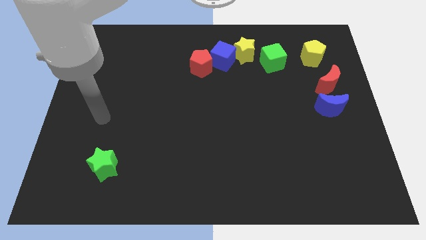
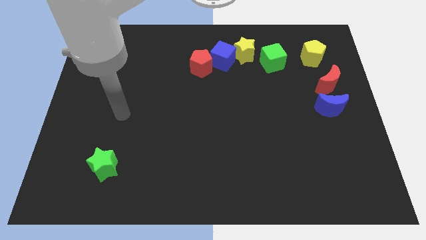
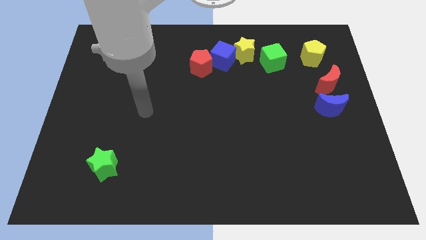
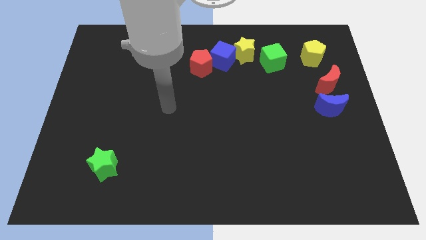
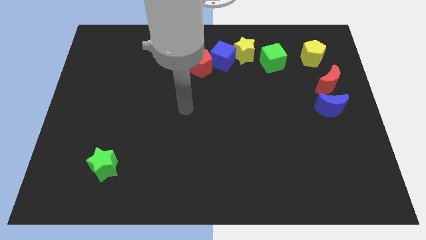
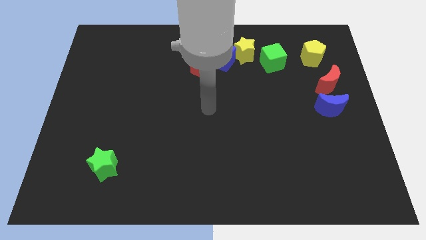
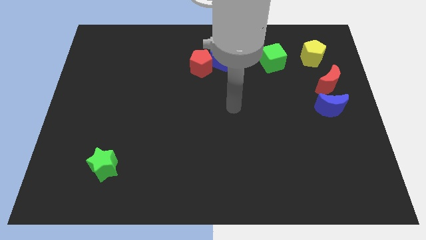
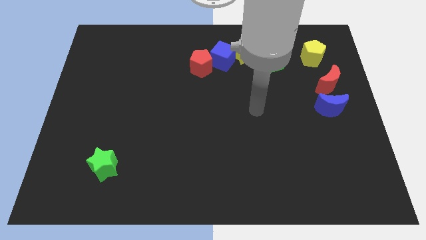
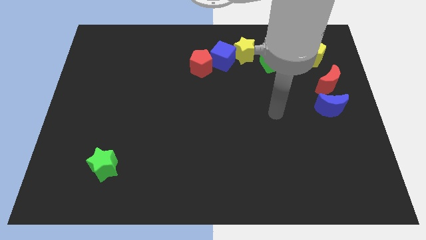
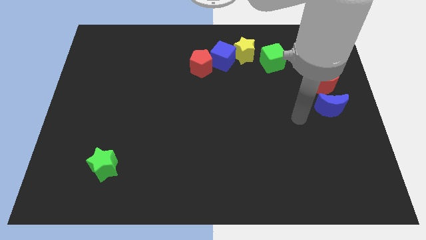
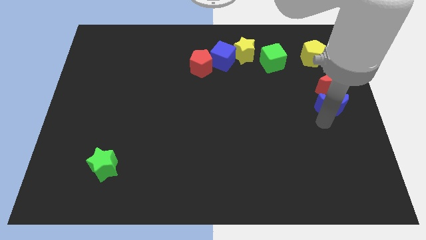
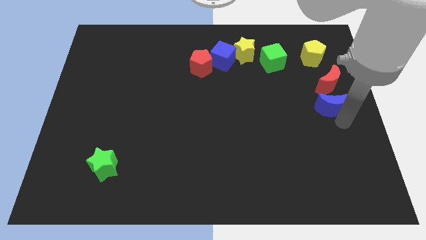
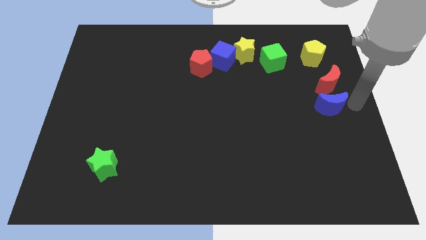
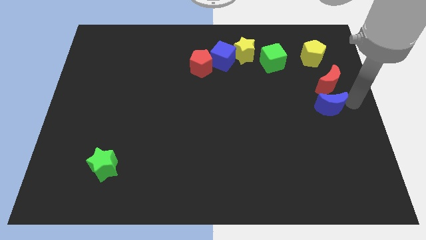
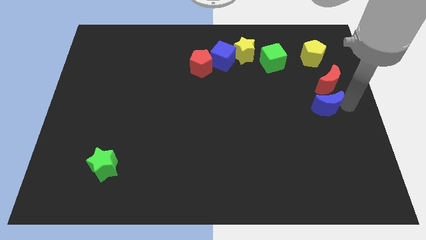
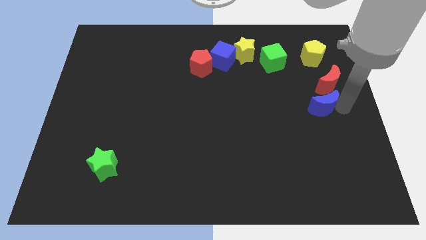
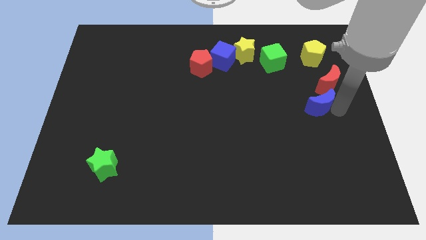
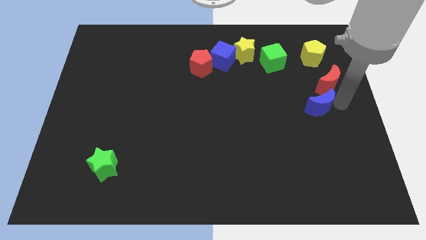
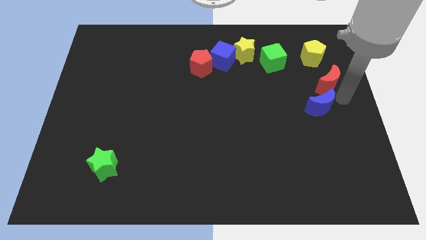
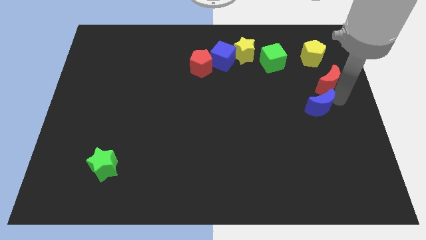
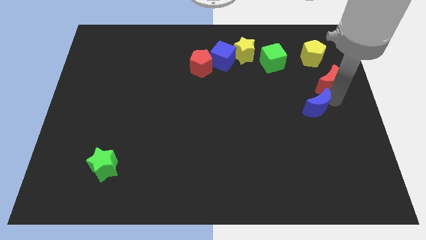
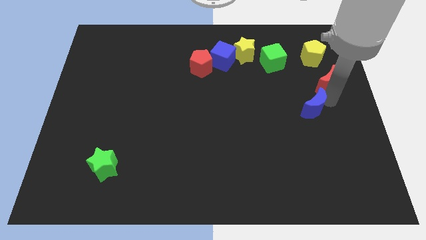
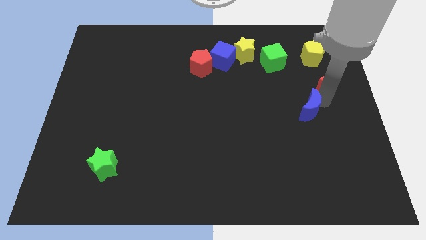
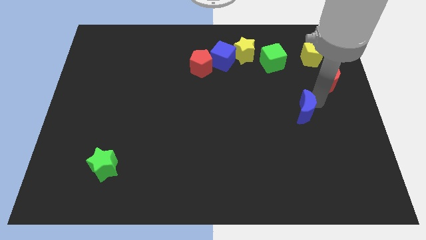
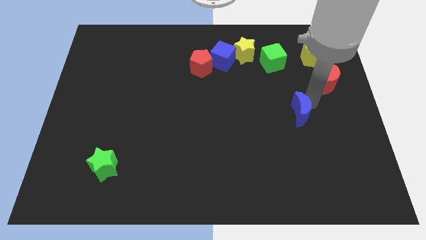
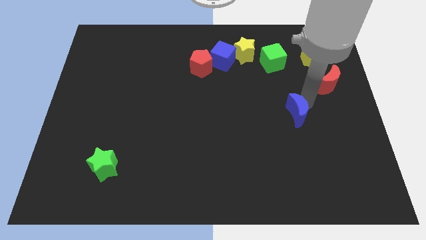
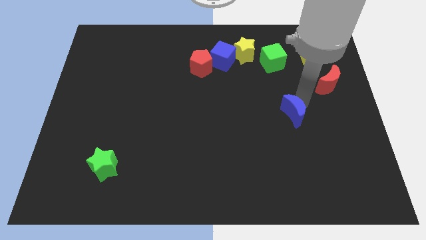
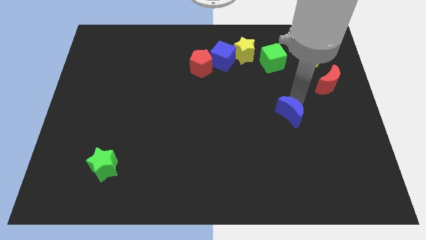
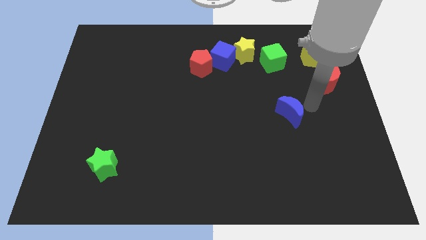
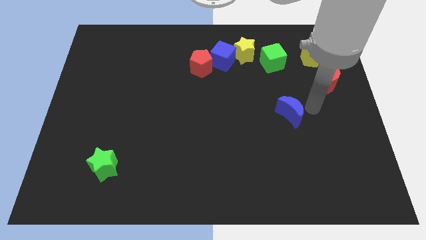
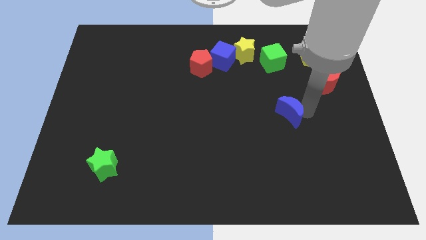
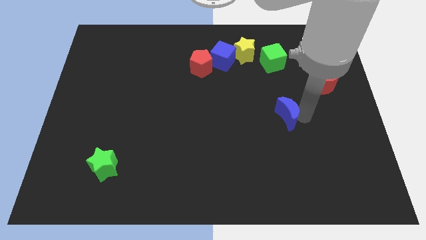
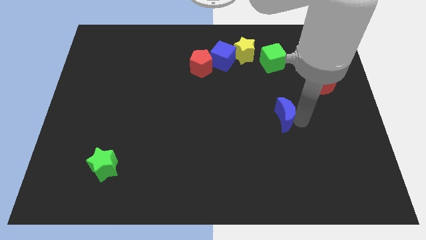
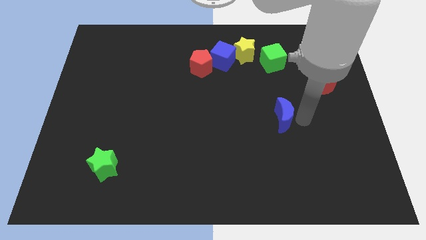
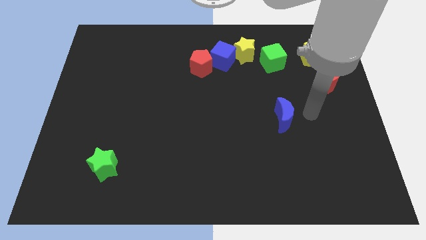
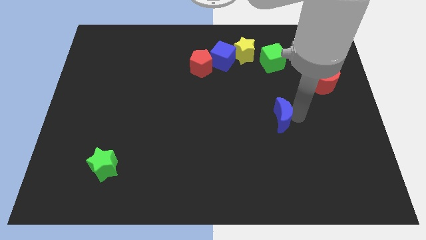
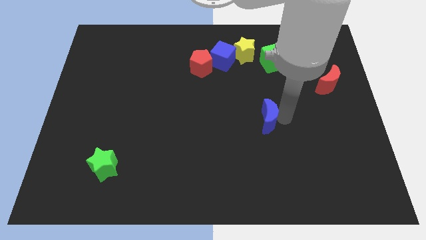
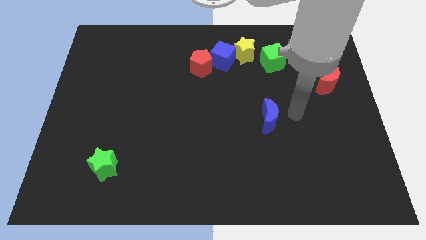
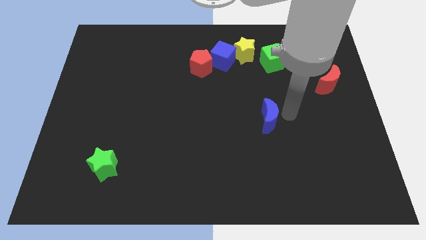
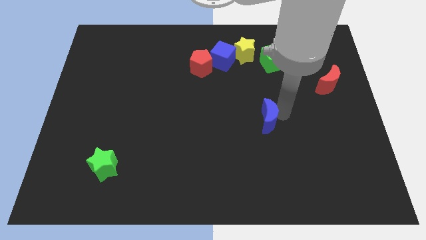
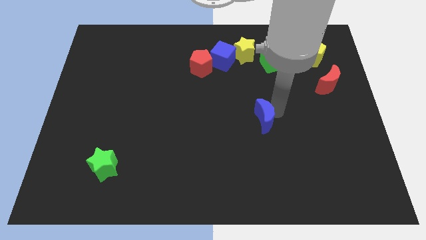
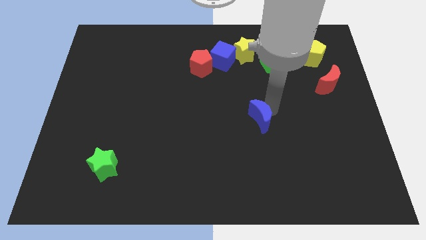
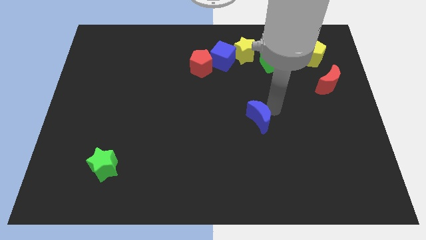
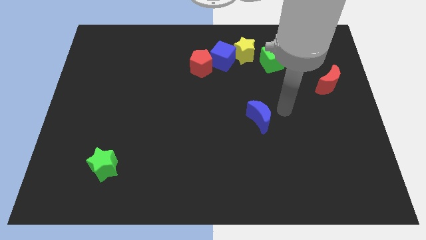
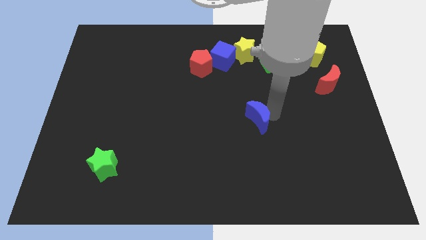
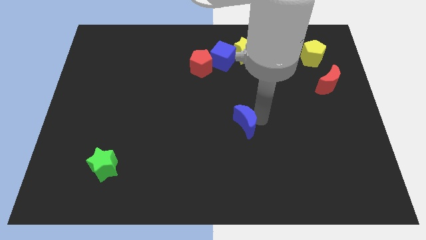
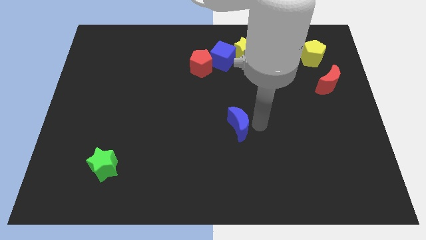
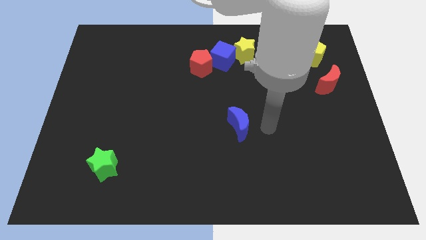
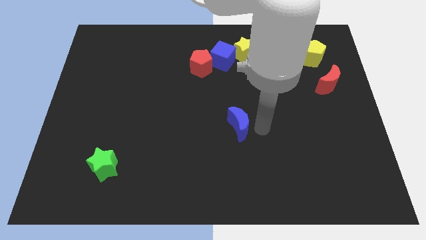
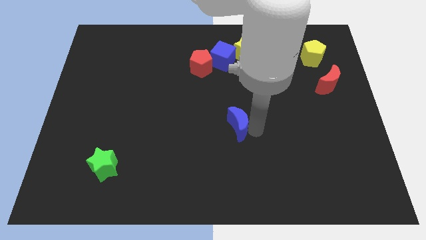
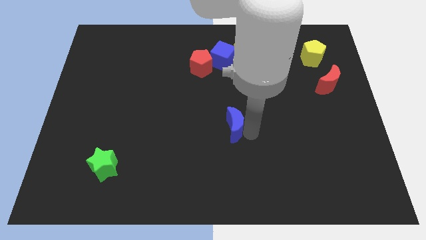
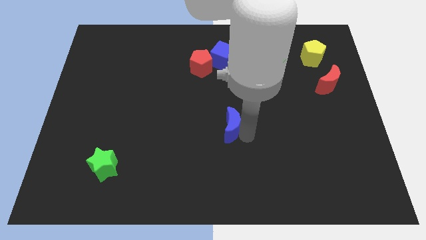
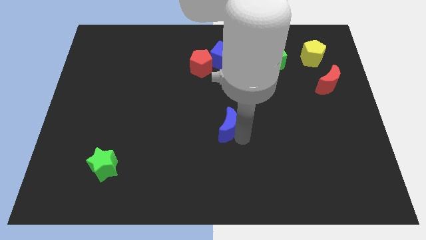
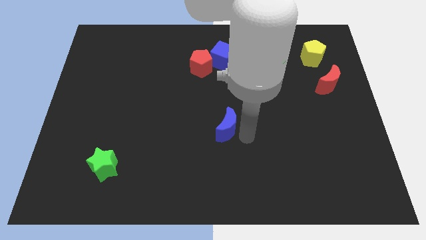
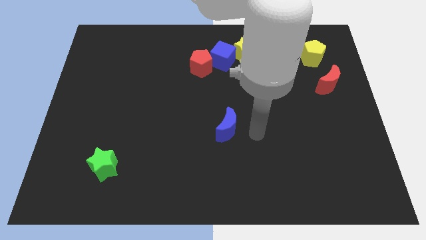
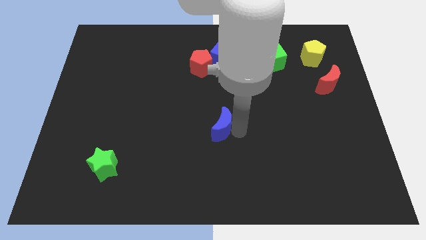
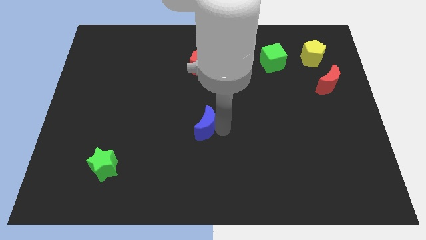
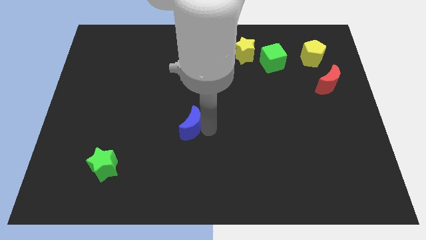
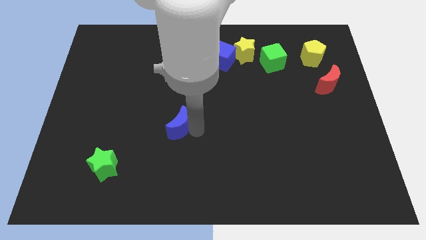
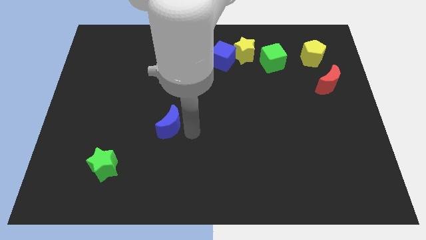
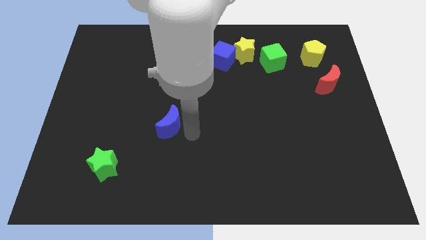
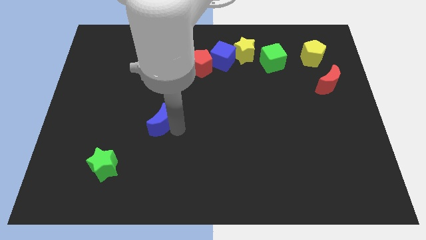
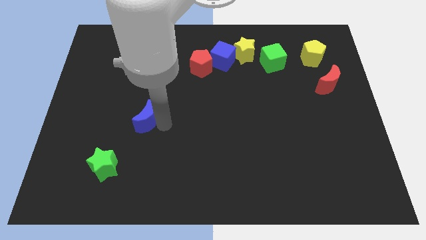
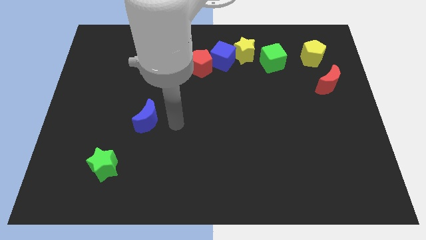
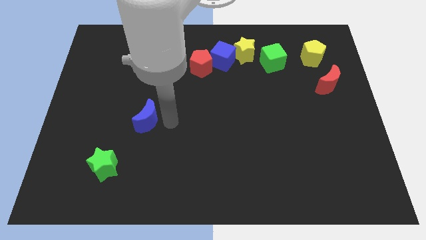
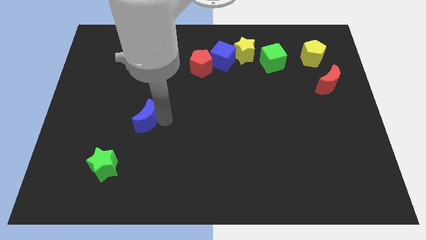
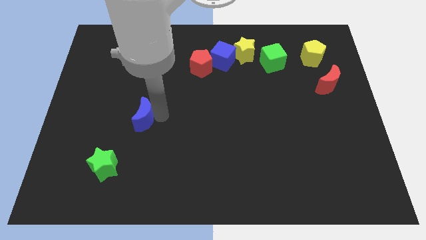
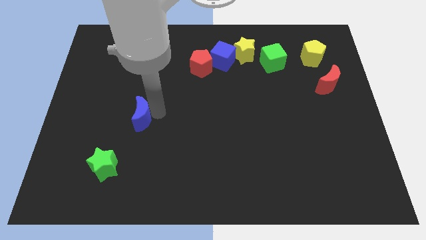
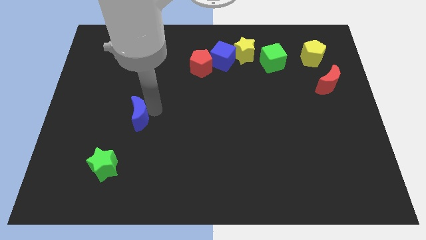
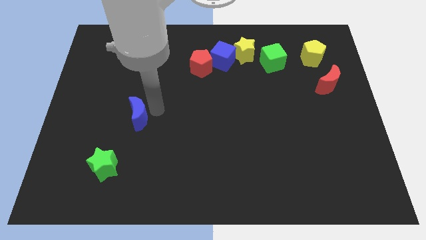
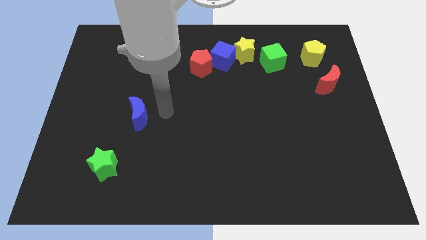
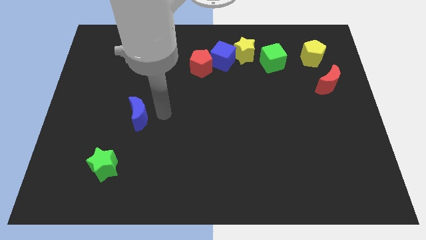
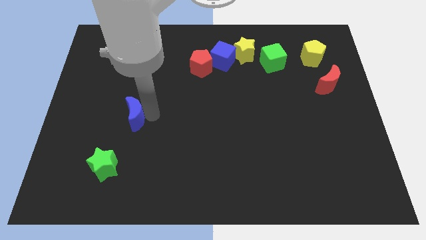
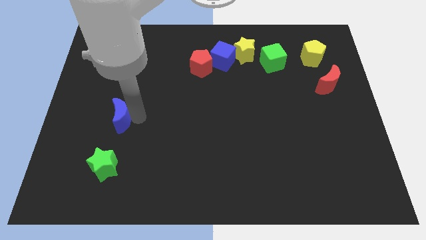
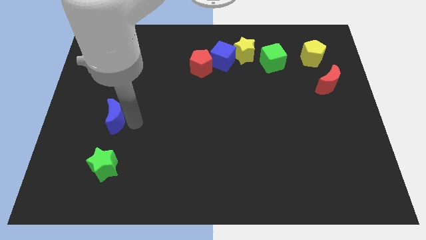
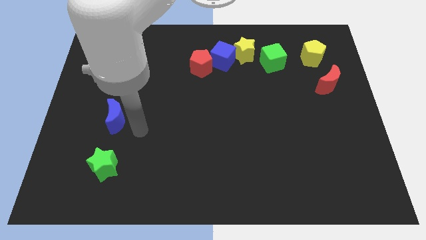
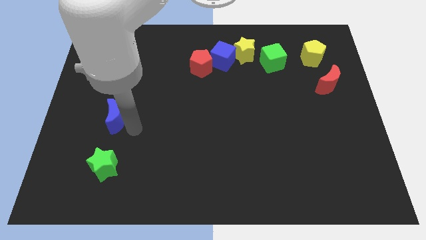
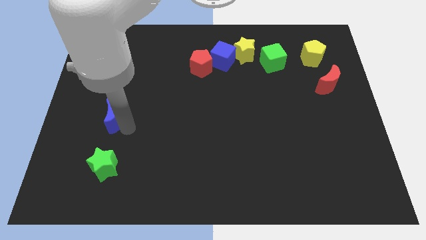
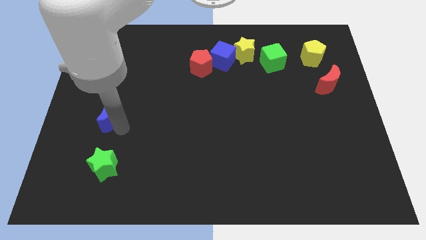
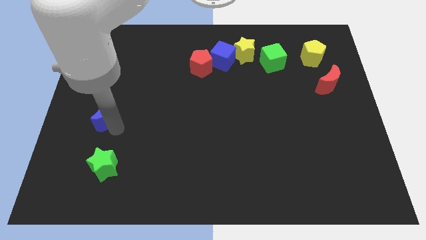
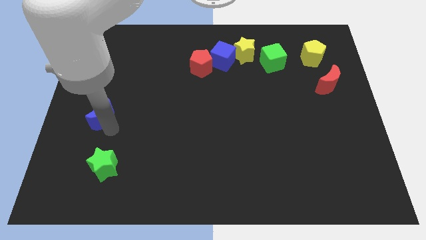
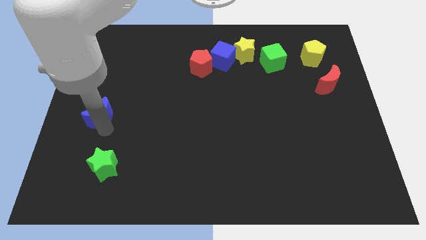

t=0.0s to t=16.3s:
move the blue moon to the left side
